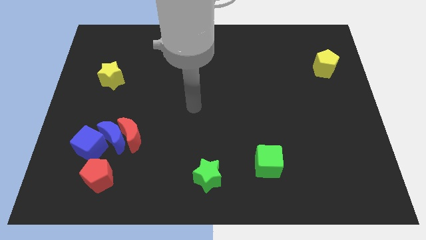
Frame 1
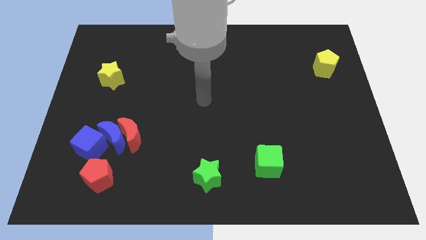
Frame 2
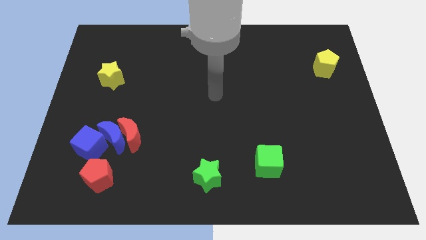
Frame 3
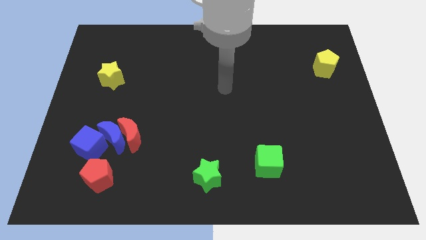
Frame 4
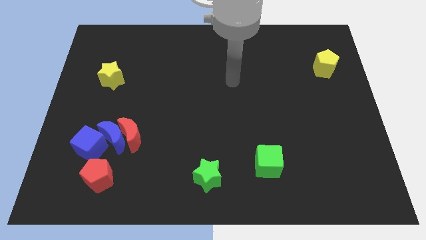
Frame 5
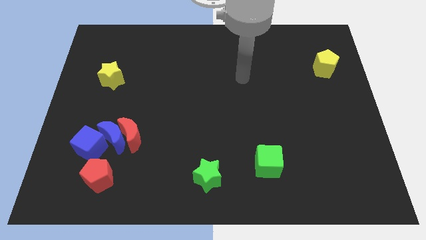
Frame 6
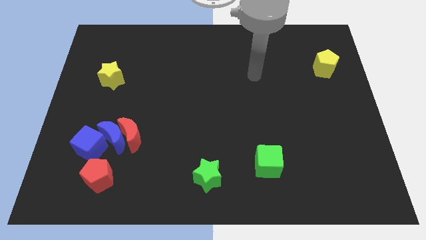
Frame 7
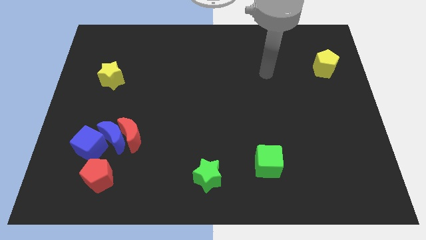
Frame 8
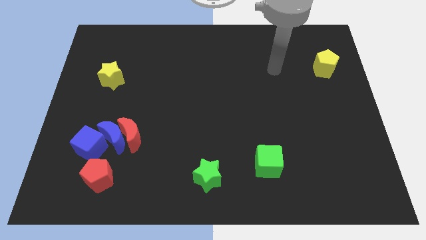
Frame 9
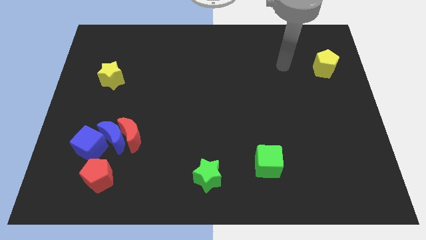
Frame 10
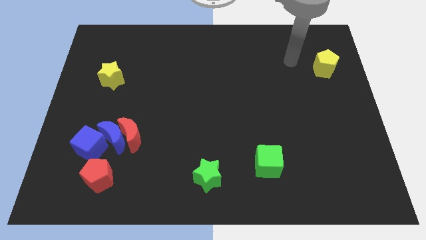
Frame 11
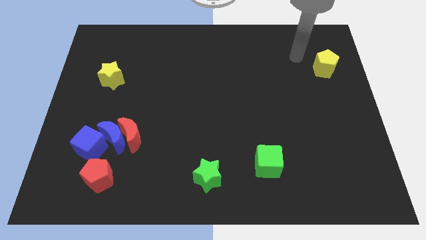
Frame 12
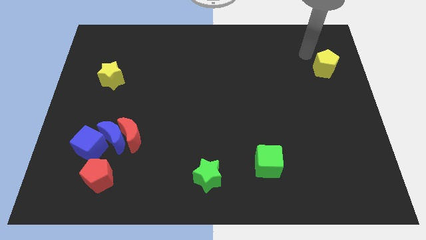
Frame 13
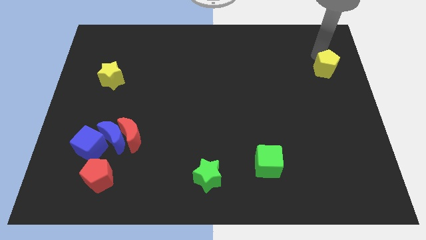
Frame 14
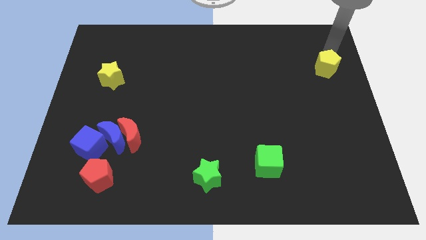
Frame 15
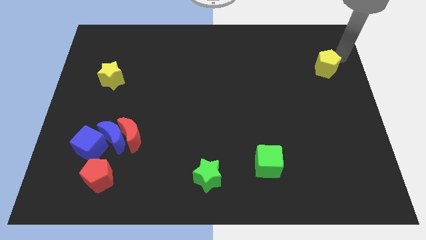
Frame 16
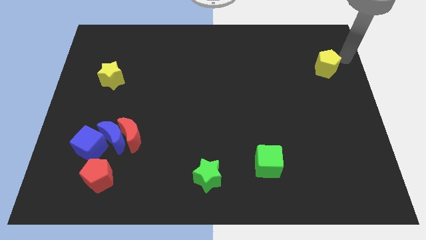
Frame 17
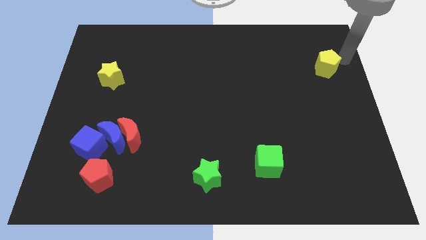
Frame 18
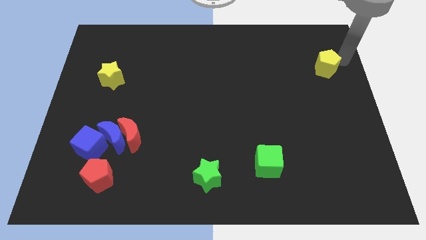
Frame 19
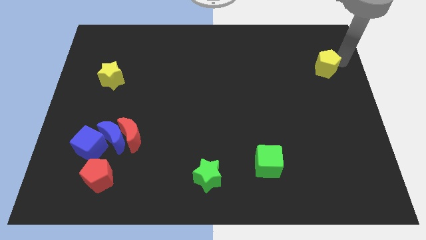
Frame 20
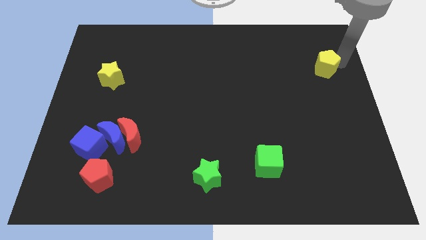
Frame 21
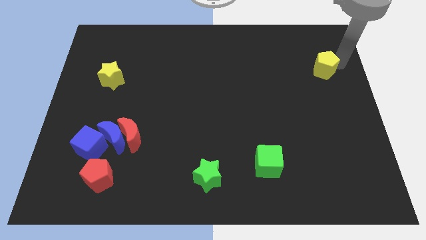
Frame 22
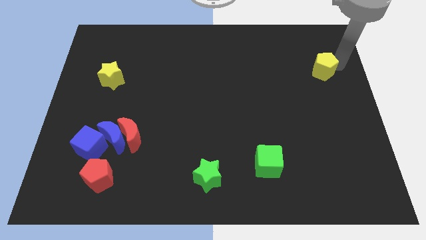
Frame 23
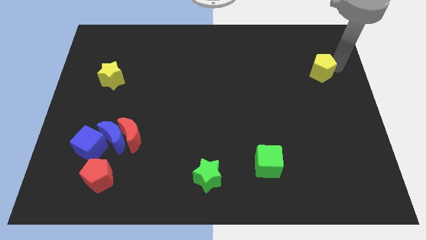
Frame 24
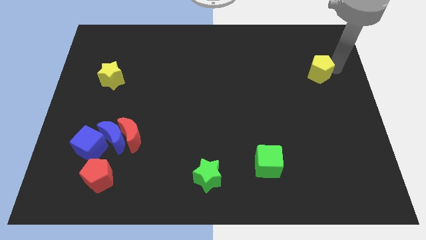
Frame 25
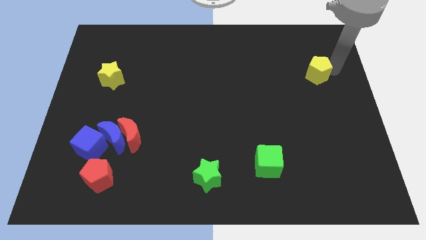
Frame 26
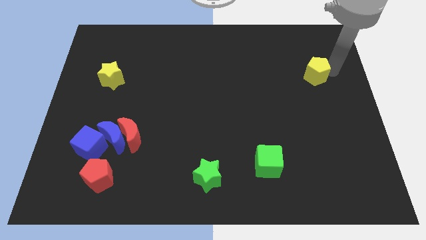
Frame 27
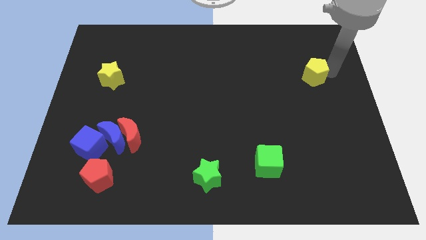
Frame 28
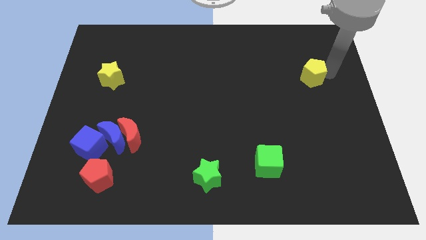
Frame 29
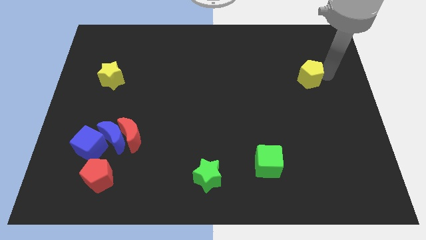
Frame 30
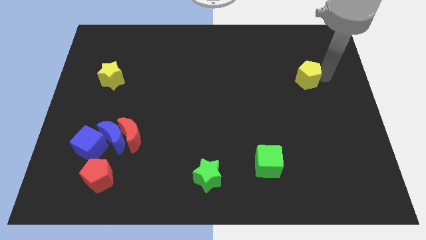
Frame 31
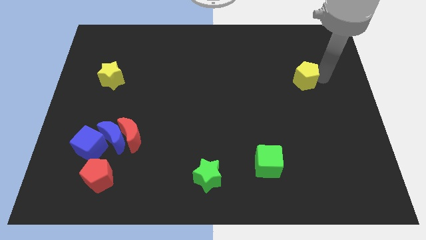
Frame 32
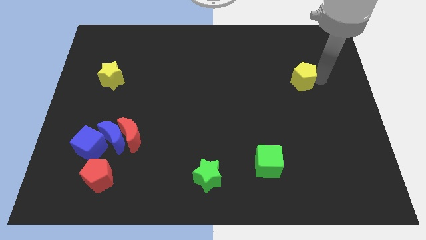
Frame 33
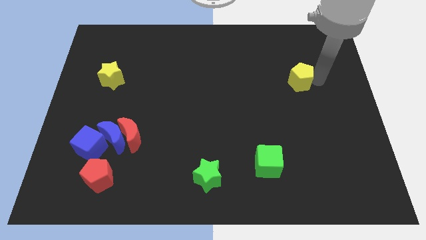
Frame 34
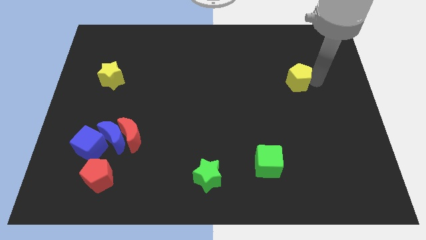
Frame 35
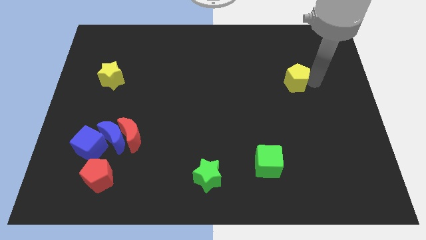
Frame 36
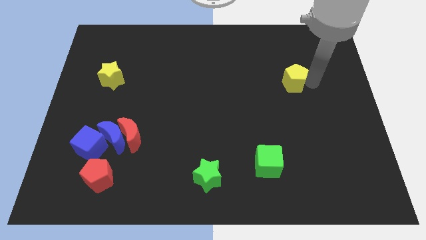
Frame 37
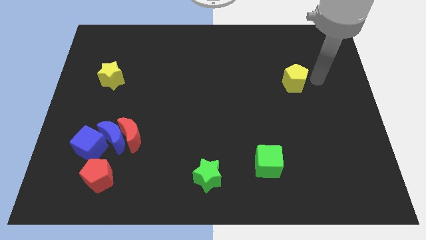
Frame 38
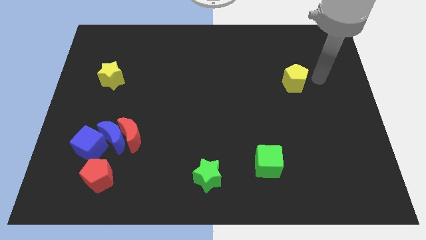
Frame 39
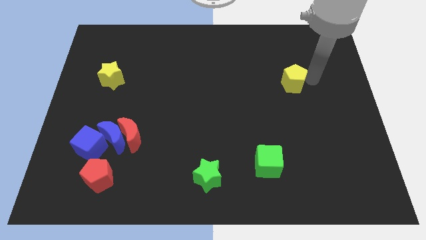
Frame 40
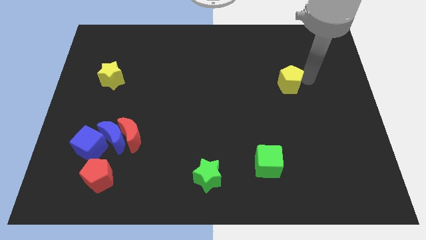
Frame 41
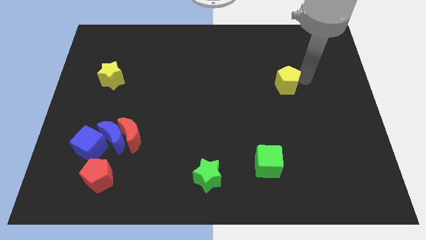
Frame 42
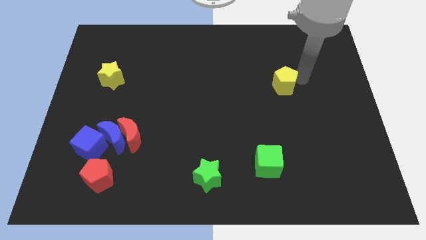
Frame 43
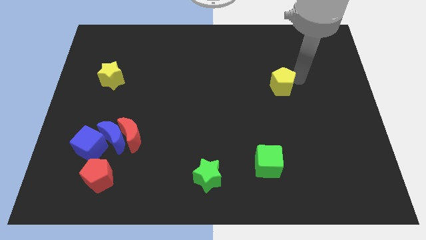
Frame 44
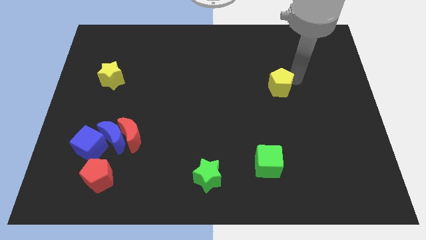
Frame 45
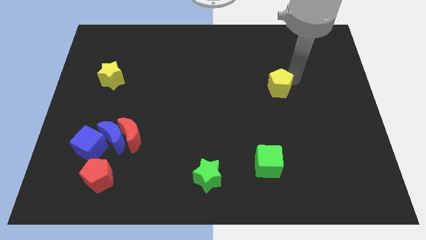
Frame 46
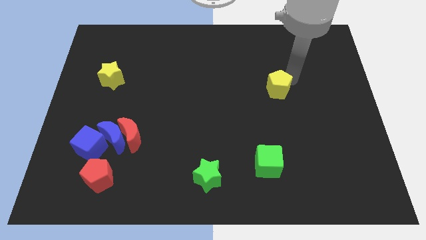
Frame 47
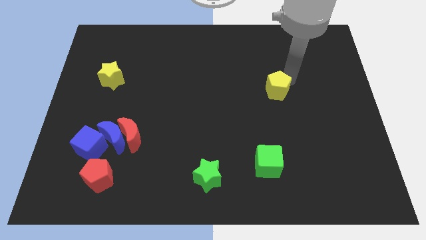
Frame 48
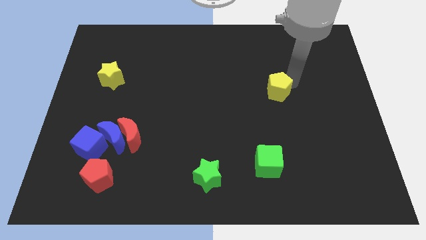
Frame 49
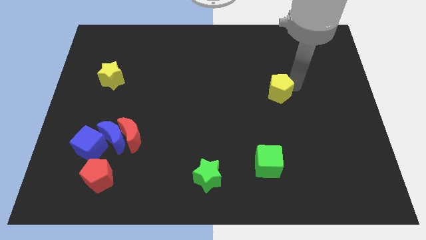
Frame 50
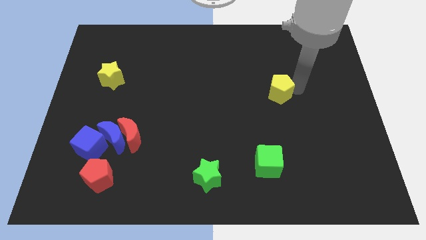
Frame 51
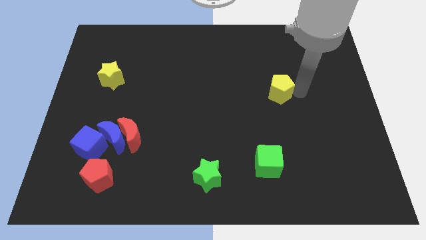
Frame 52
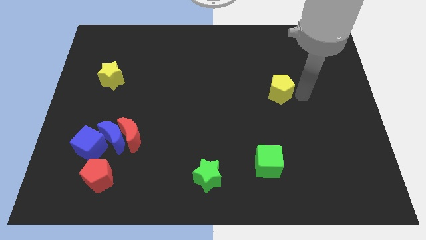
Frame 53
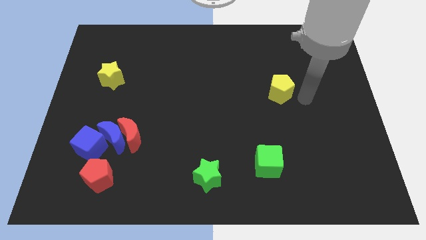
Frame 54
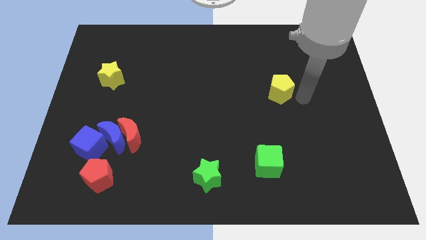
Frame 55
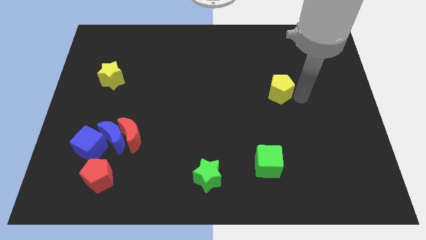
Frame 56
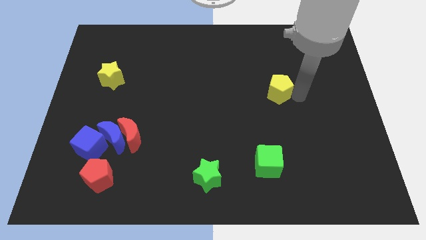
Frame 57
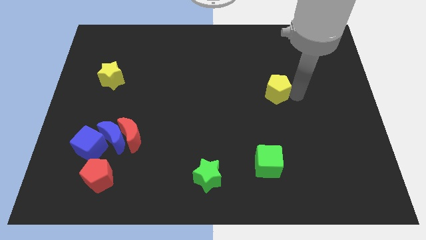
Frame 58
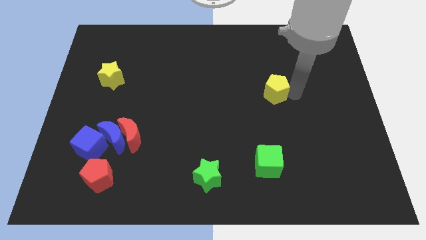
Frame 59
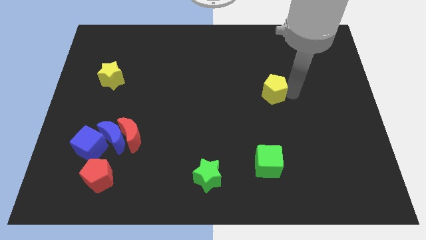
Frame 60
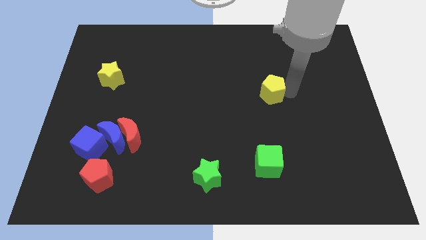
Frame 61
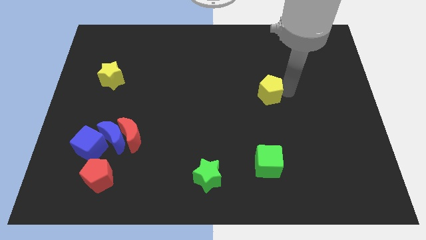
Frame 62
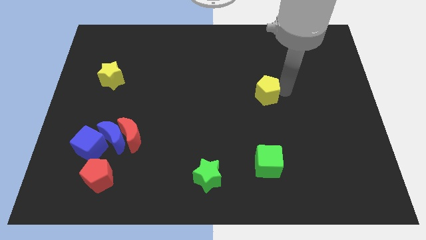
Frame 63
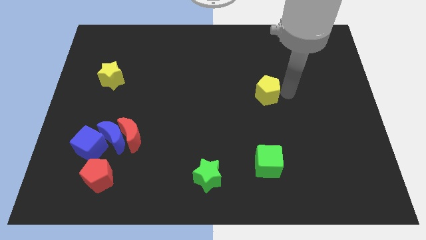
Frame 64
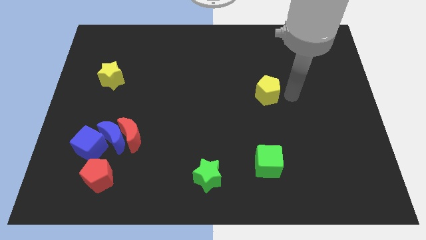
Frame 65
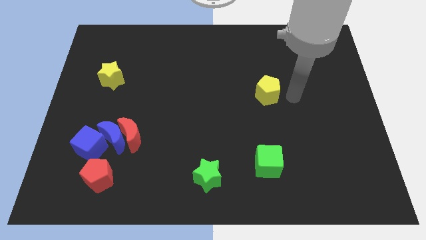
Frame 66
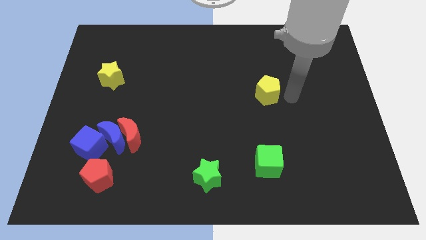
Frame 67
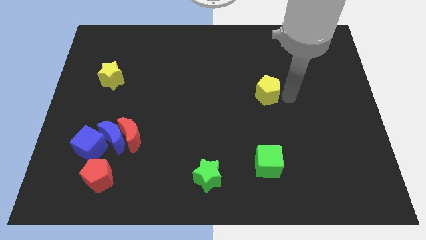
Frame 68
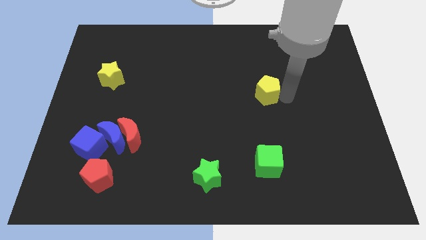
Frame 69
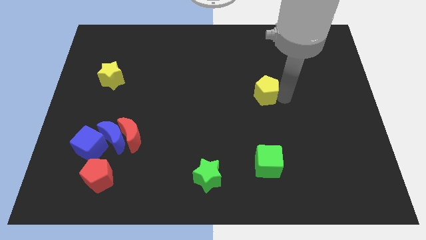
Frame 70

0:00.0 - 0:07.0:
put the yellow pentagon to the center of the board
